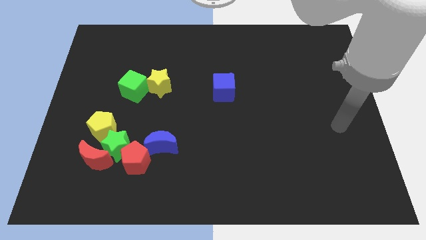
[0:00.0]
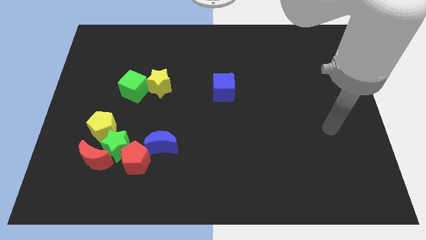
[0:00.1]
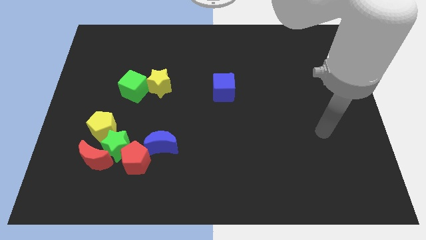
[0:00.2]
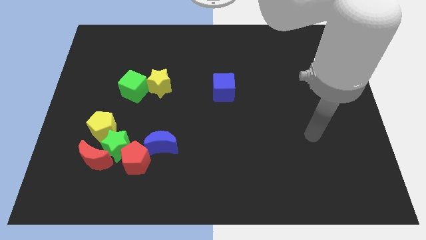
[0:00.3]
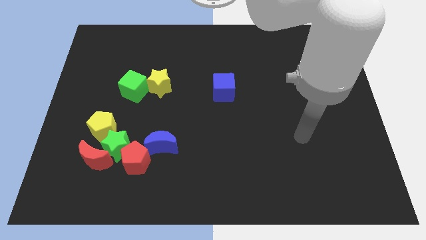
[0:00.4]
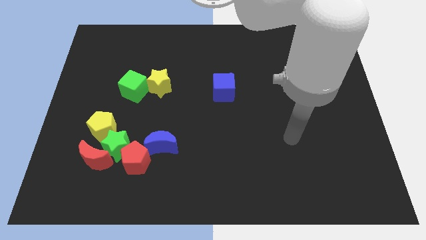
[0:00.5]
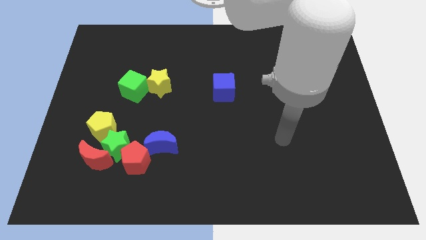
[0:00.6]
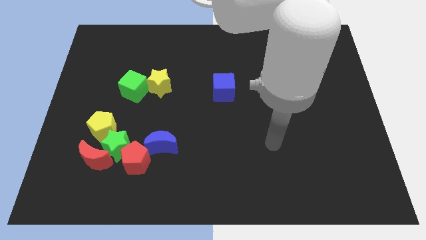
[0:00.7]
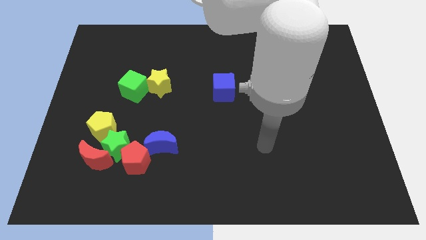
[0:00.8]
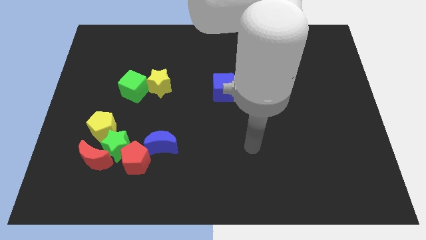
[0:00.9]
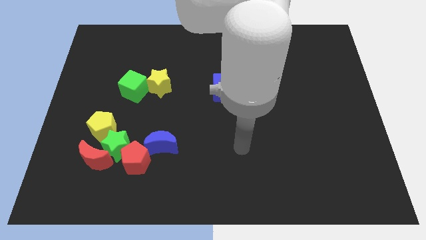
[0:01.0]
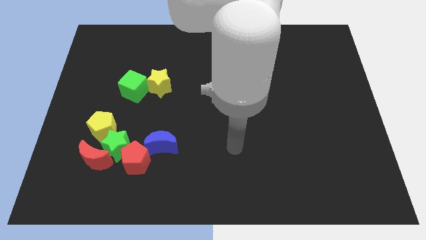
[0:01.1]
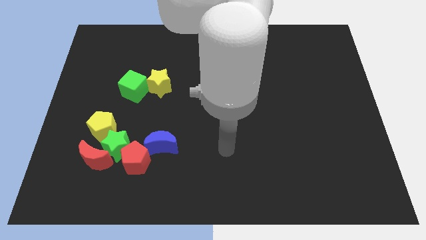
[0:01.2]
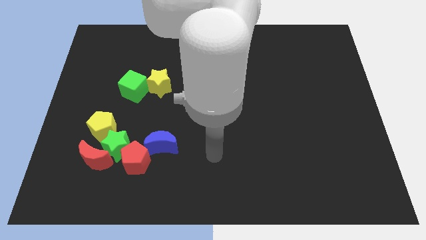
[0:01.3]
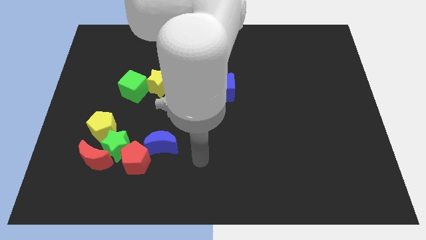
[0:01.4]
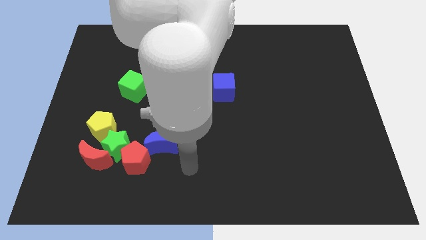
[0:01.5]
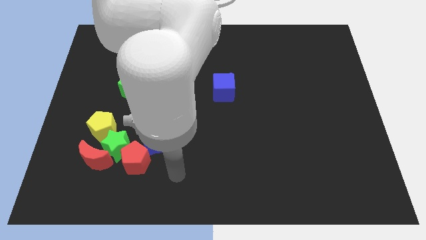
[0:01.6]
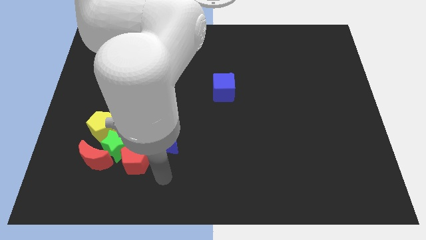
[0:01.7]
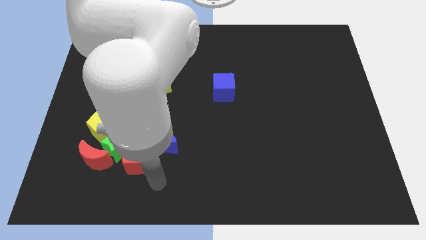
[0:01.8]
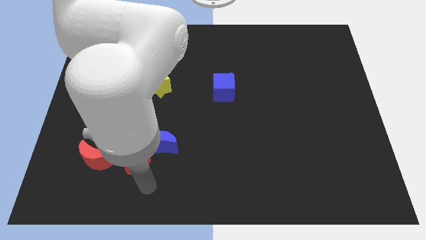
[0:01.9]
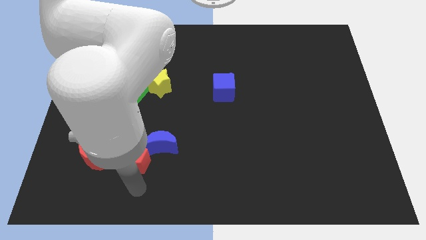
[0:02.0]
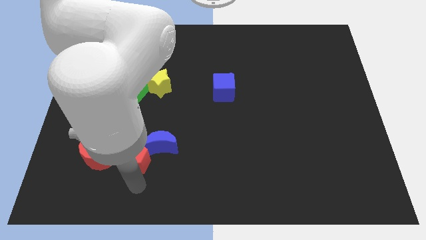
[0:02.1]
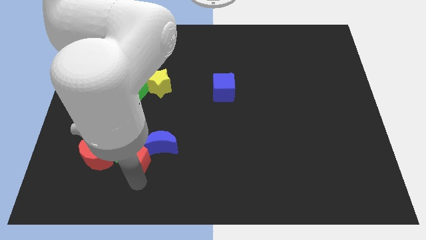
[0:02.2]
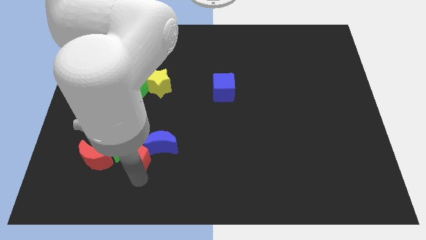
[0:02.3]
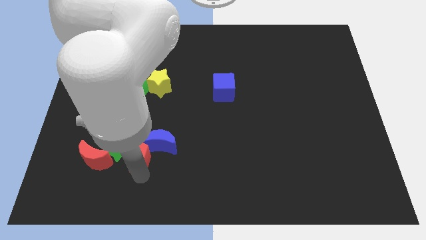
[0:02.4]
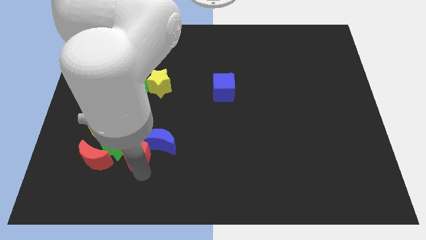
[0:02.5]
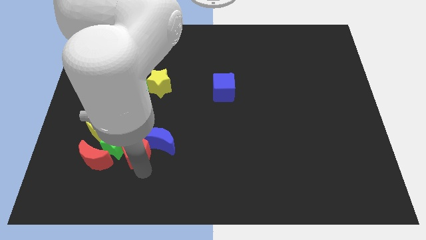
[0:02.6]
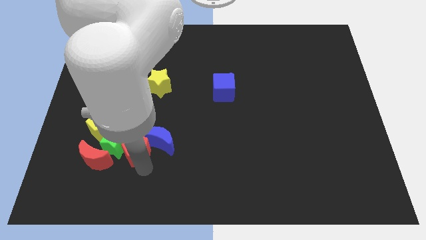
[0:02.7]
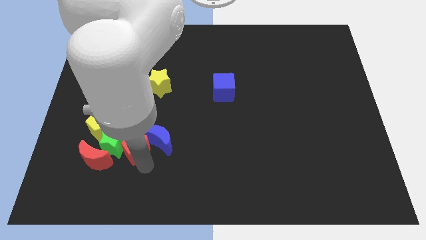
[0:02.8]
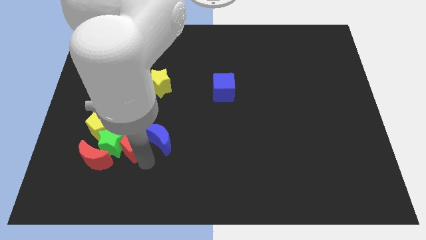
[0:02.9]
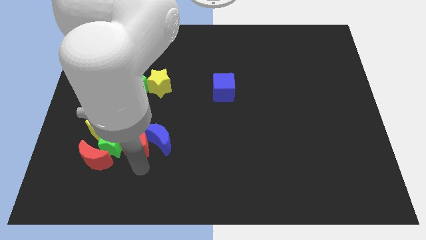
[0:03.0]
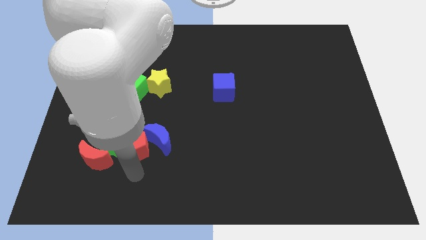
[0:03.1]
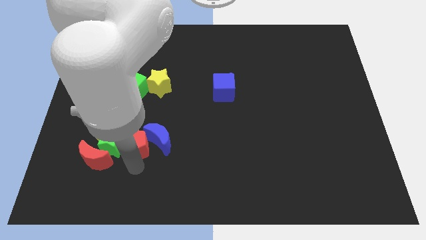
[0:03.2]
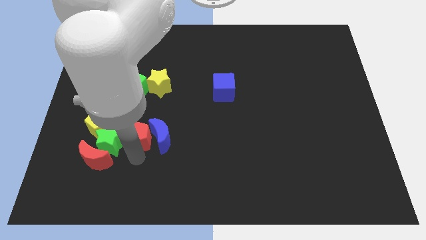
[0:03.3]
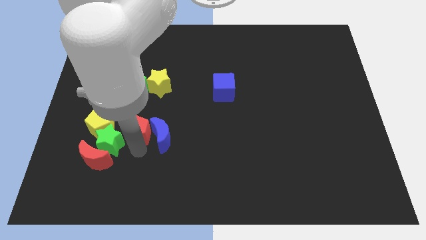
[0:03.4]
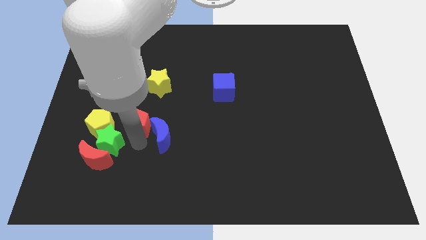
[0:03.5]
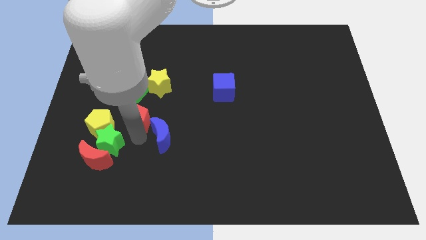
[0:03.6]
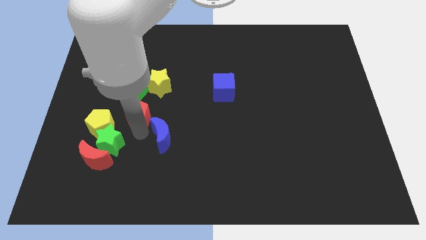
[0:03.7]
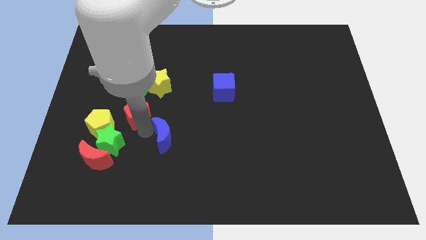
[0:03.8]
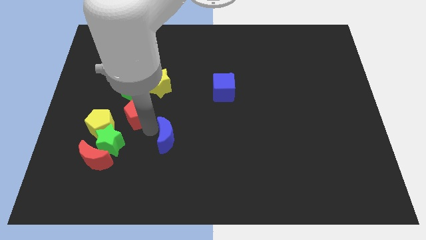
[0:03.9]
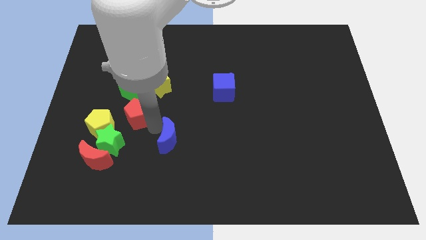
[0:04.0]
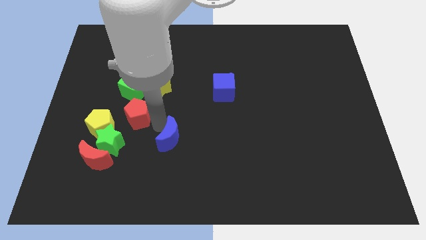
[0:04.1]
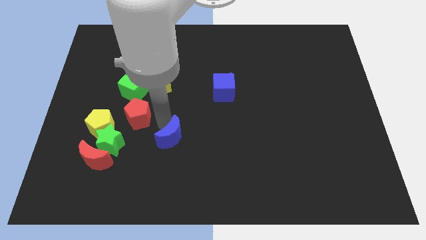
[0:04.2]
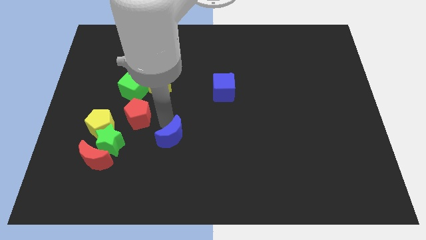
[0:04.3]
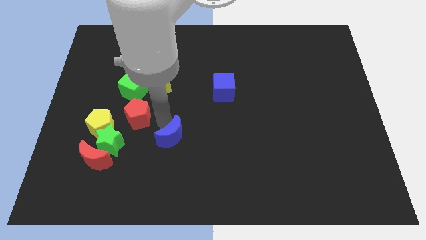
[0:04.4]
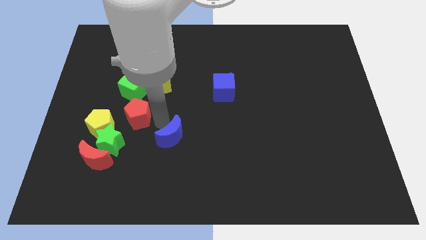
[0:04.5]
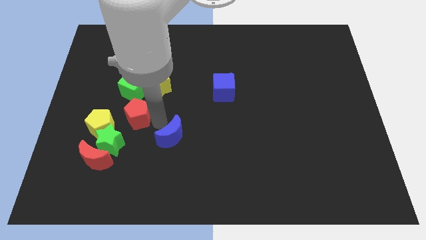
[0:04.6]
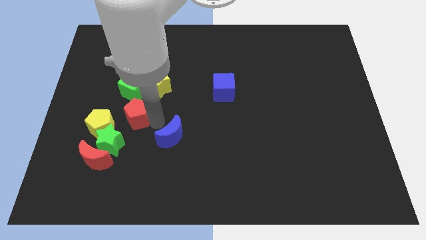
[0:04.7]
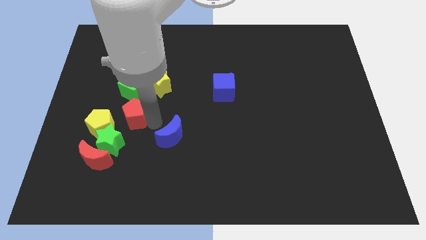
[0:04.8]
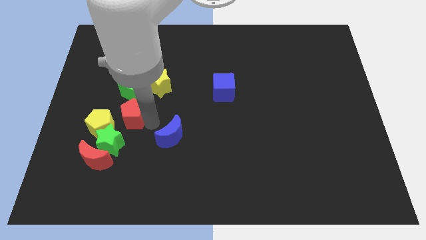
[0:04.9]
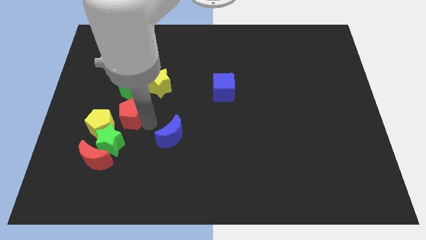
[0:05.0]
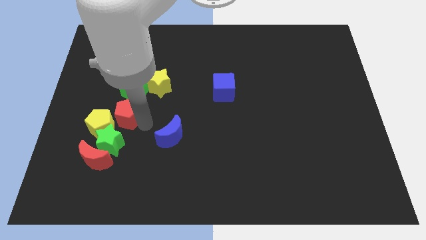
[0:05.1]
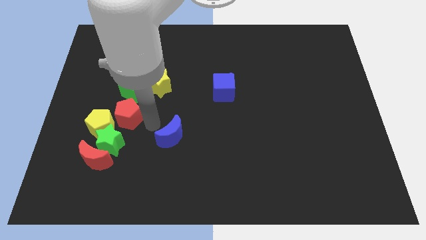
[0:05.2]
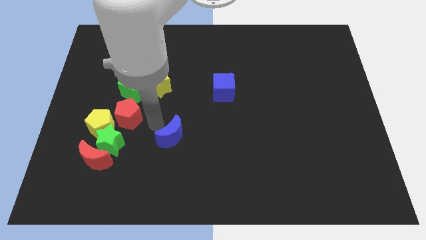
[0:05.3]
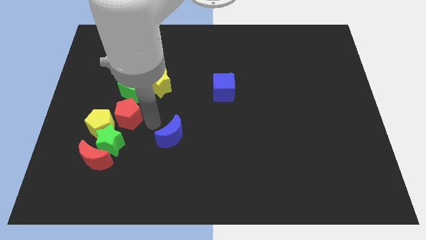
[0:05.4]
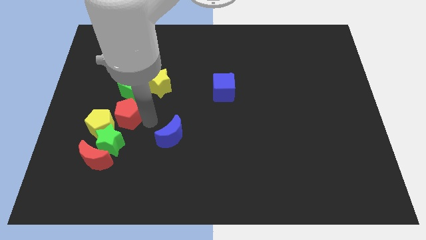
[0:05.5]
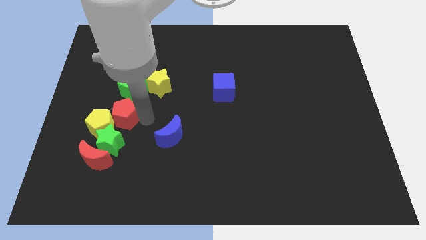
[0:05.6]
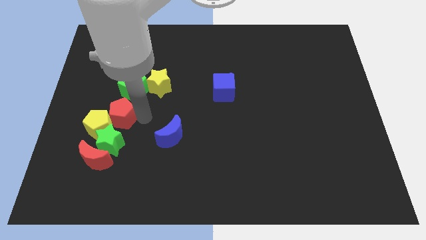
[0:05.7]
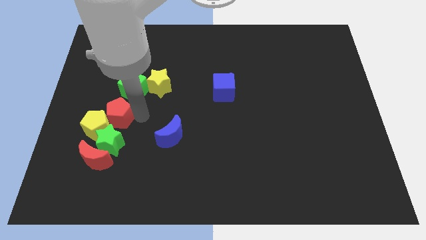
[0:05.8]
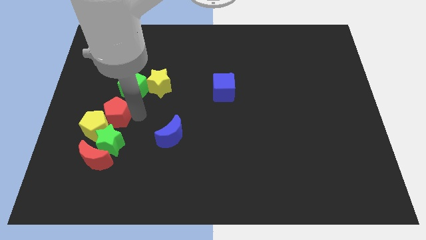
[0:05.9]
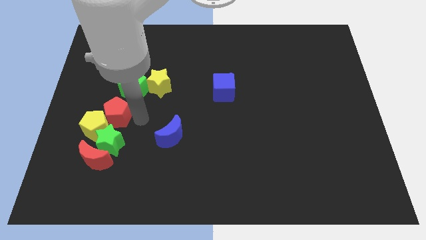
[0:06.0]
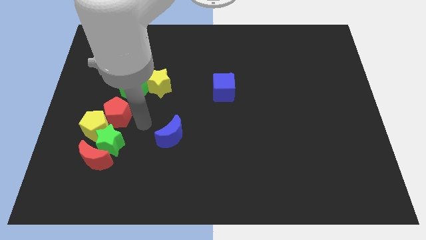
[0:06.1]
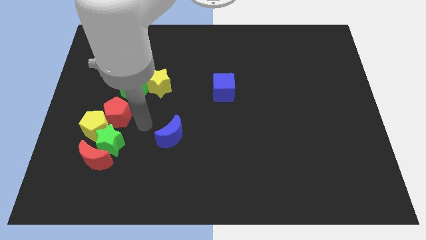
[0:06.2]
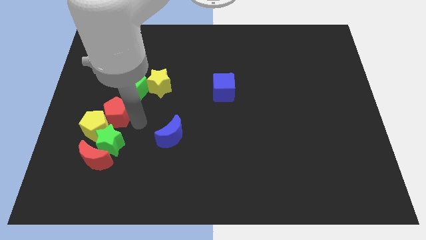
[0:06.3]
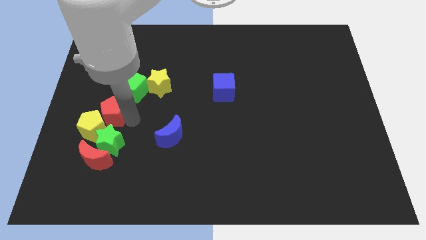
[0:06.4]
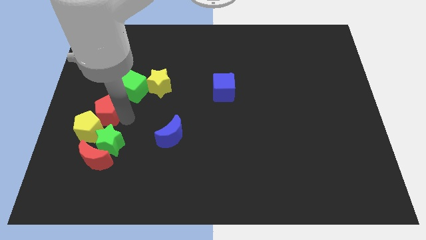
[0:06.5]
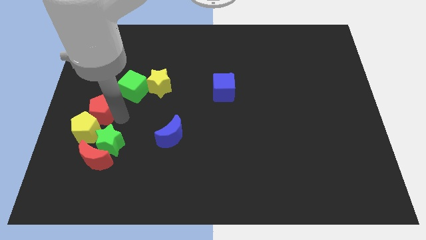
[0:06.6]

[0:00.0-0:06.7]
push the red pentagon to the center left
